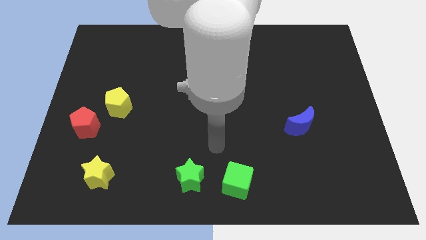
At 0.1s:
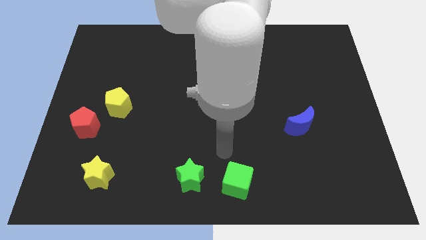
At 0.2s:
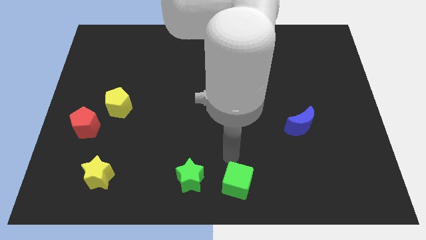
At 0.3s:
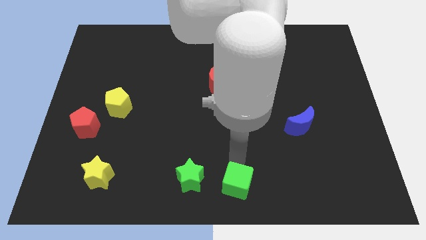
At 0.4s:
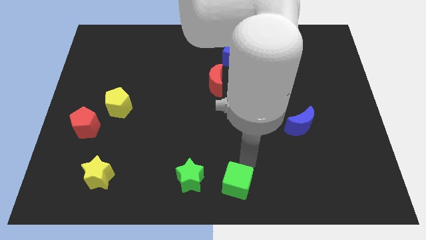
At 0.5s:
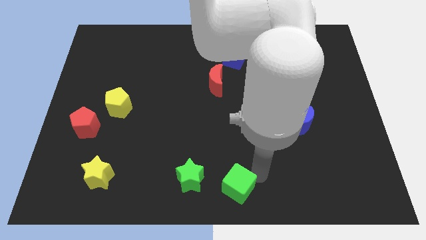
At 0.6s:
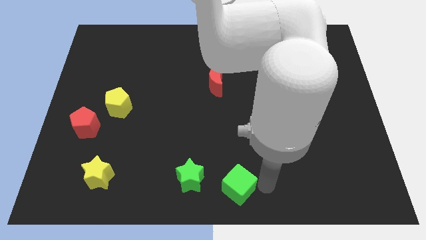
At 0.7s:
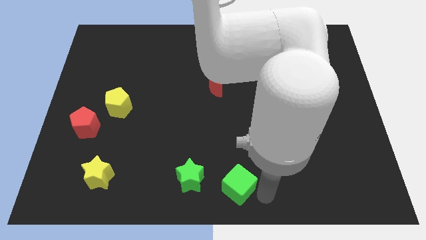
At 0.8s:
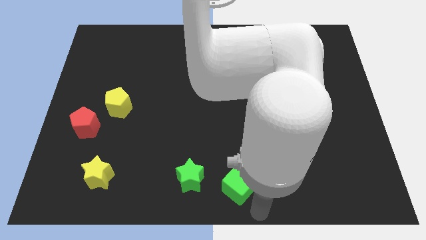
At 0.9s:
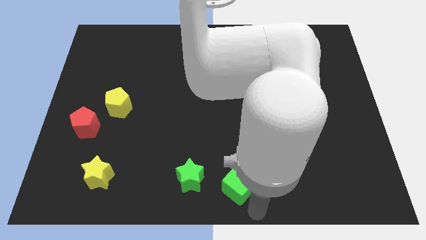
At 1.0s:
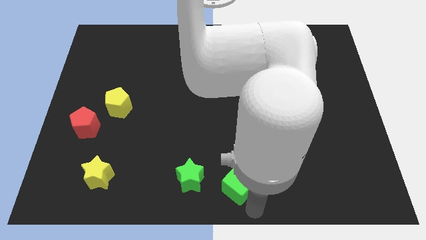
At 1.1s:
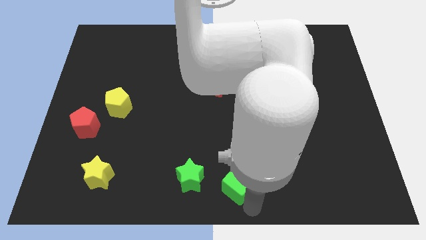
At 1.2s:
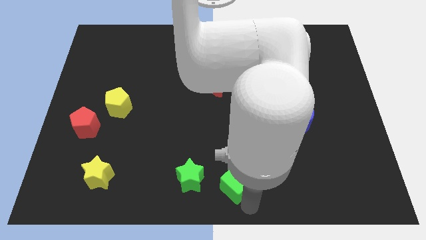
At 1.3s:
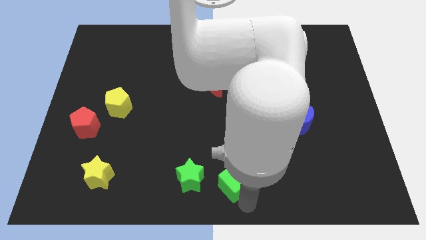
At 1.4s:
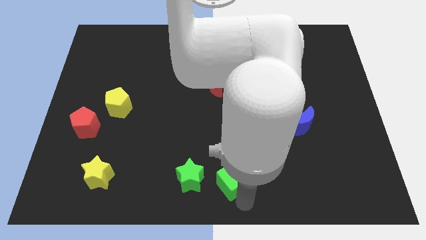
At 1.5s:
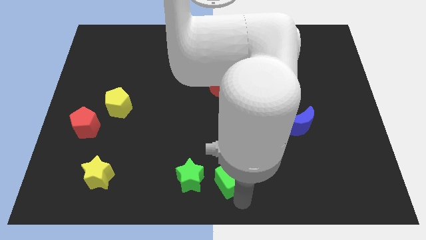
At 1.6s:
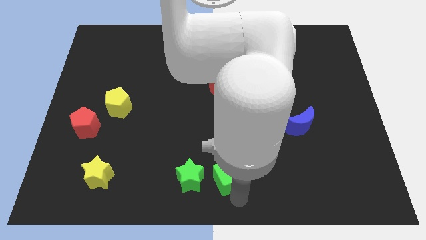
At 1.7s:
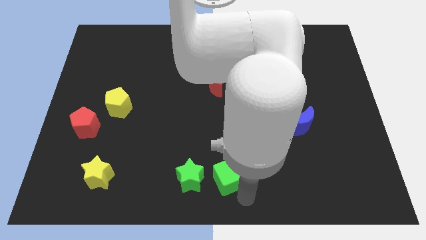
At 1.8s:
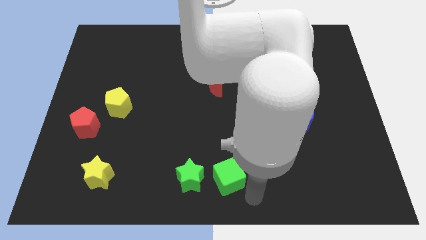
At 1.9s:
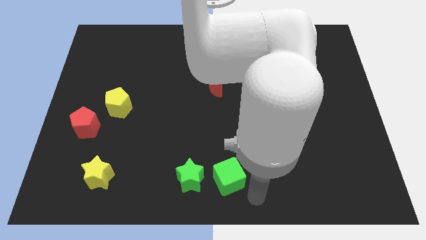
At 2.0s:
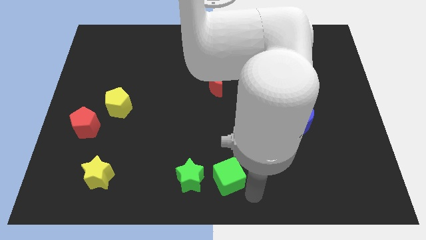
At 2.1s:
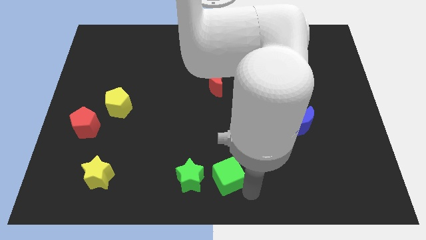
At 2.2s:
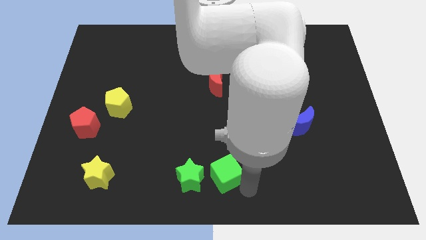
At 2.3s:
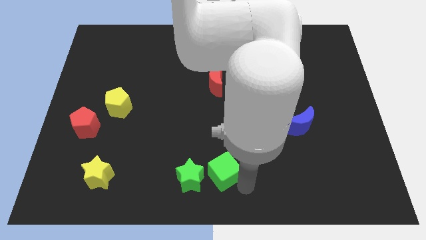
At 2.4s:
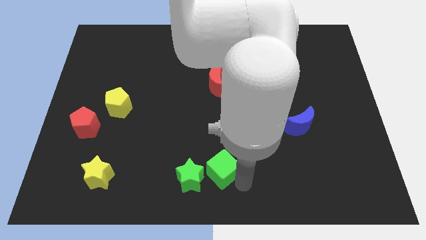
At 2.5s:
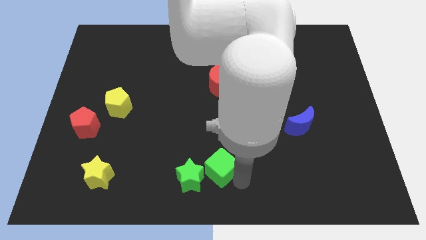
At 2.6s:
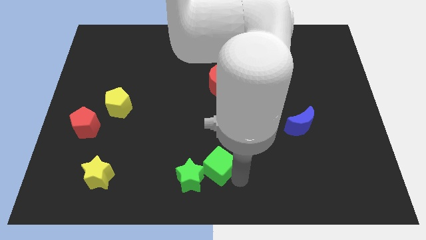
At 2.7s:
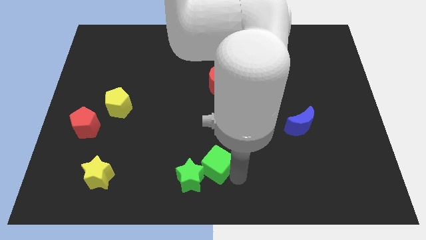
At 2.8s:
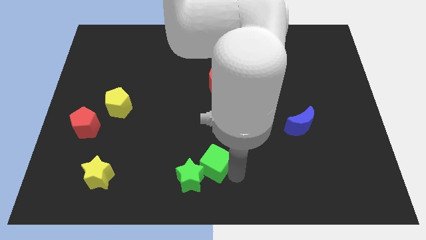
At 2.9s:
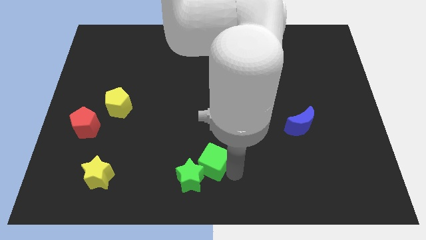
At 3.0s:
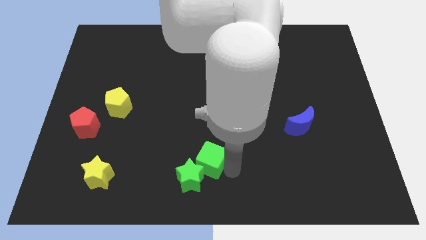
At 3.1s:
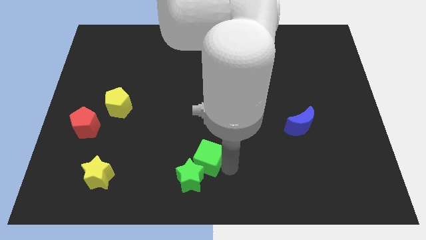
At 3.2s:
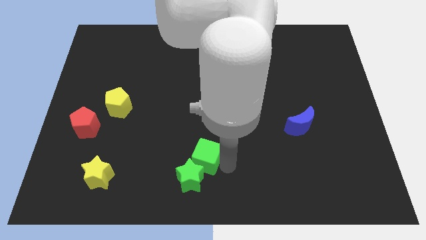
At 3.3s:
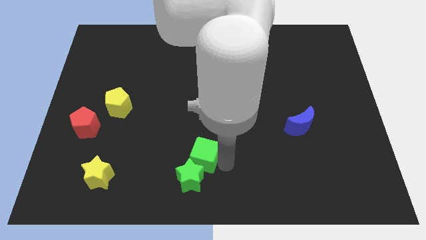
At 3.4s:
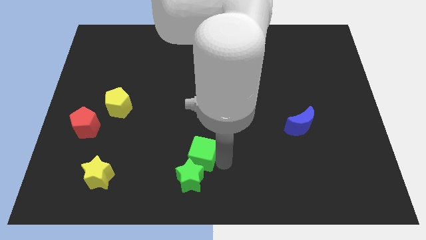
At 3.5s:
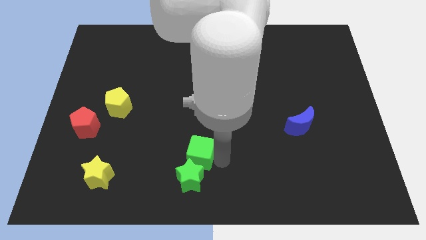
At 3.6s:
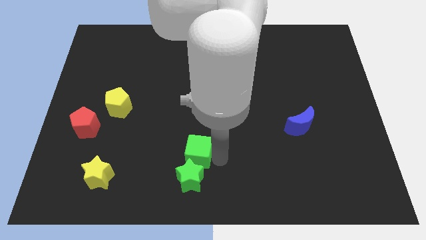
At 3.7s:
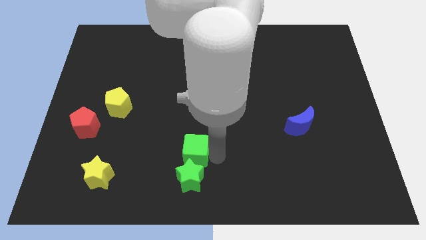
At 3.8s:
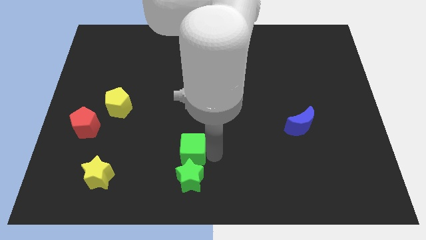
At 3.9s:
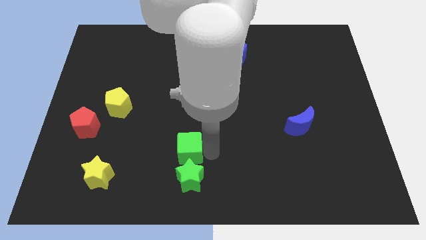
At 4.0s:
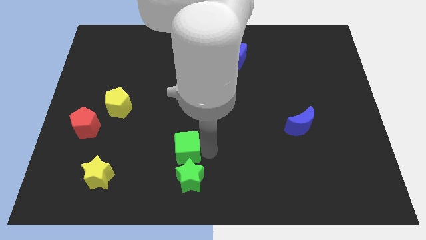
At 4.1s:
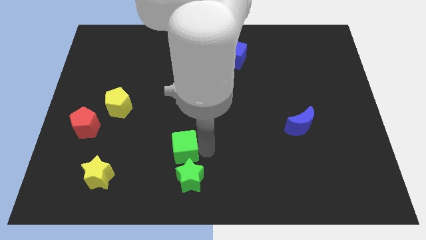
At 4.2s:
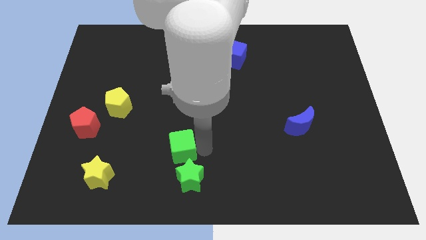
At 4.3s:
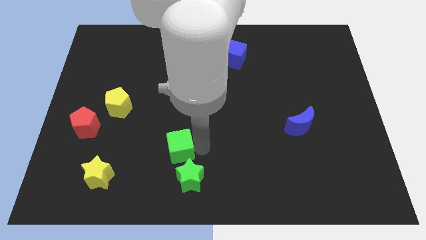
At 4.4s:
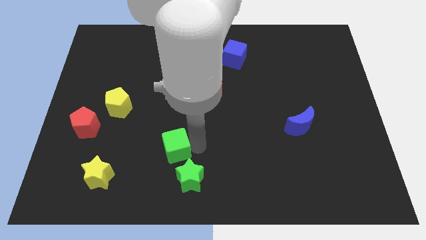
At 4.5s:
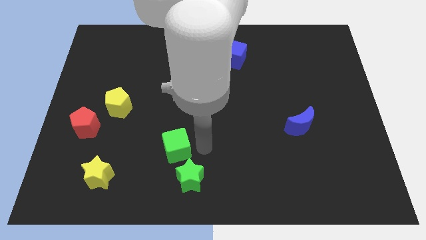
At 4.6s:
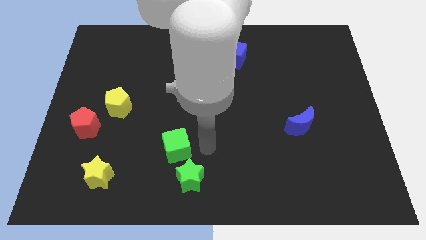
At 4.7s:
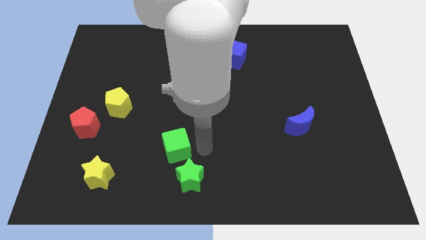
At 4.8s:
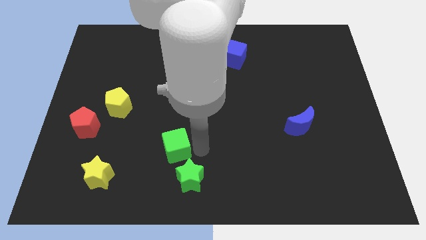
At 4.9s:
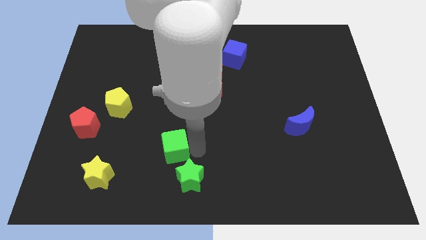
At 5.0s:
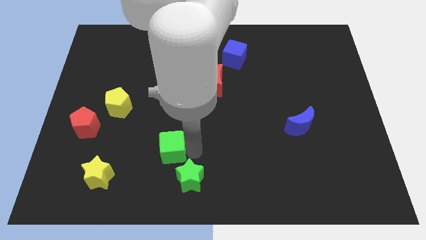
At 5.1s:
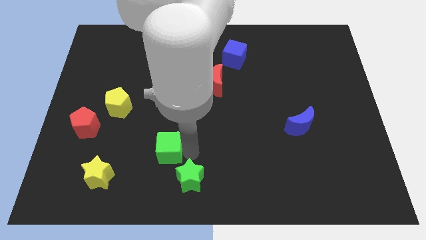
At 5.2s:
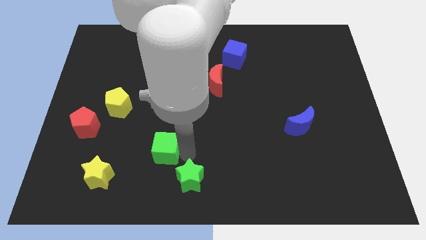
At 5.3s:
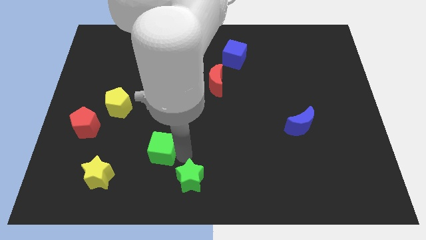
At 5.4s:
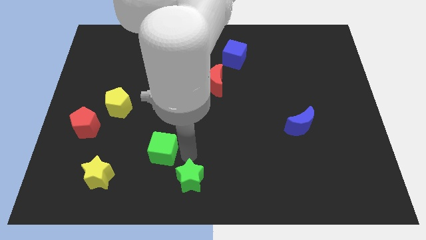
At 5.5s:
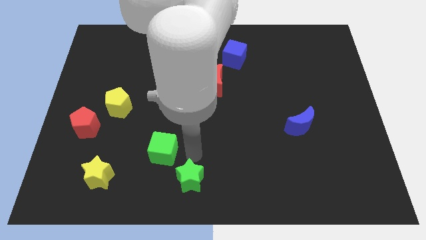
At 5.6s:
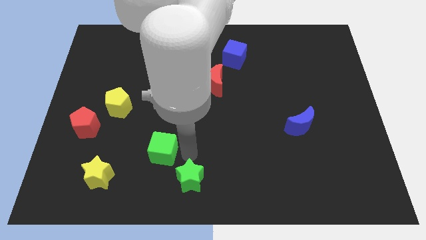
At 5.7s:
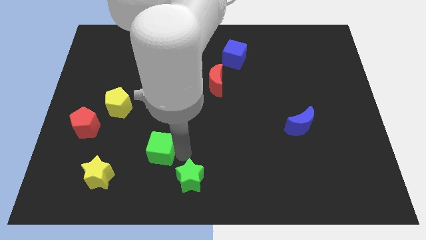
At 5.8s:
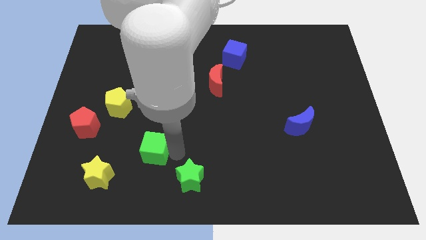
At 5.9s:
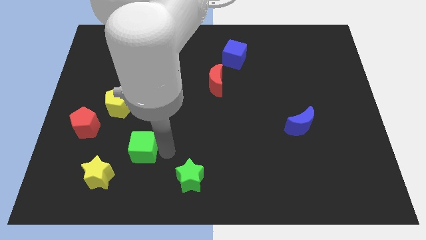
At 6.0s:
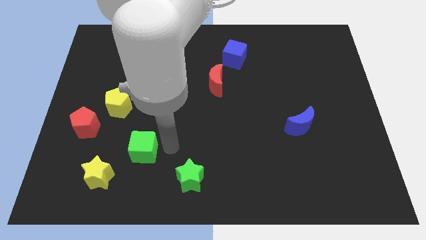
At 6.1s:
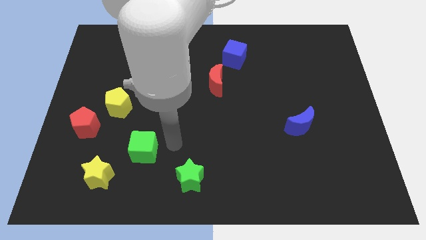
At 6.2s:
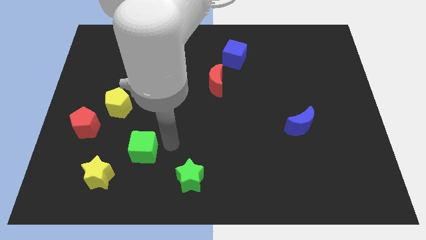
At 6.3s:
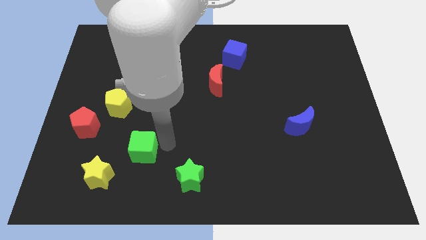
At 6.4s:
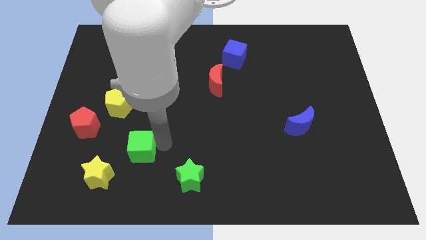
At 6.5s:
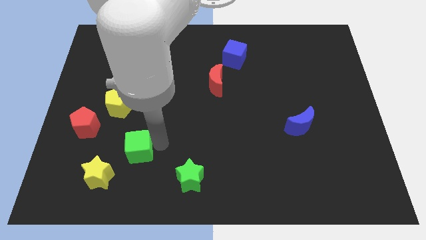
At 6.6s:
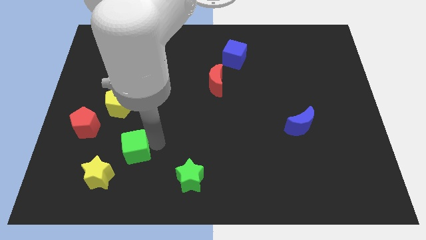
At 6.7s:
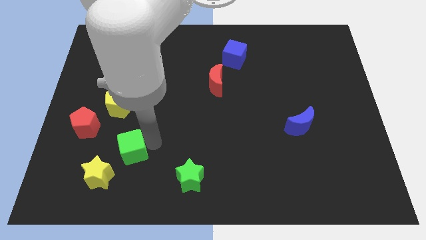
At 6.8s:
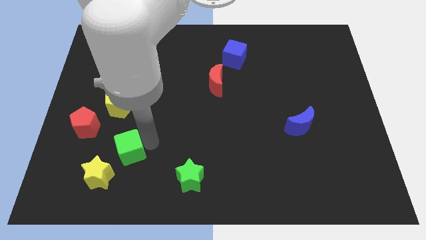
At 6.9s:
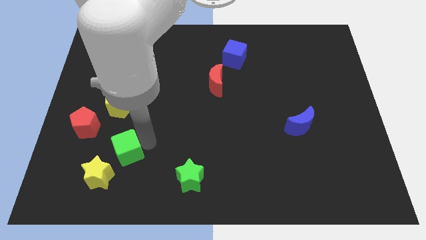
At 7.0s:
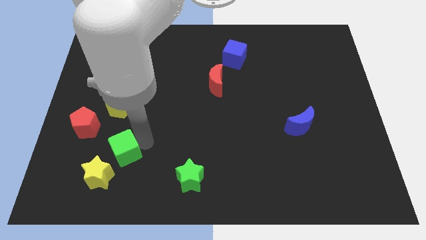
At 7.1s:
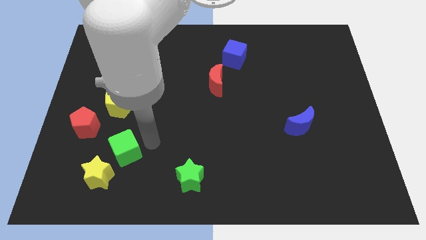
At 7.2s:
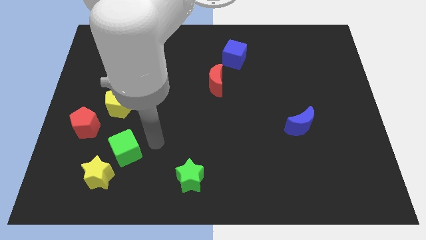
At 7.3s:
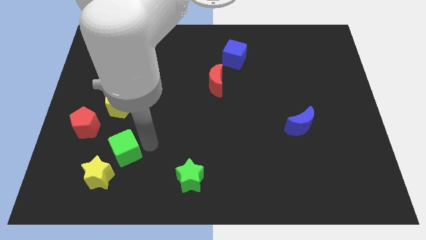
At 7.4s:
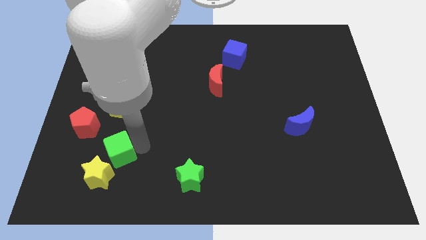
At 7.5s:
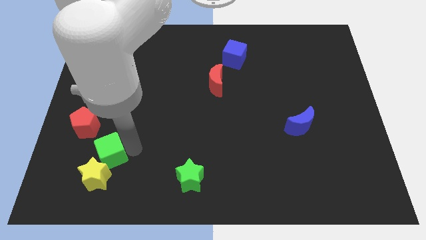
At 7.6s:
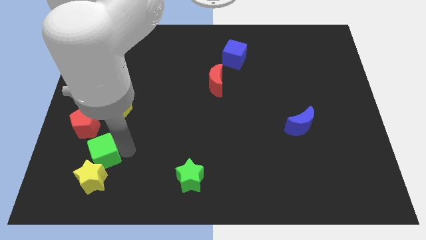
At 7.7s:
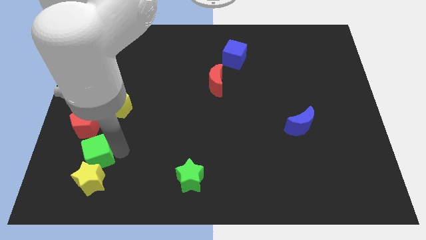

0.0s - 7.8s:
put the green cube below the red pentagon
